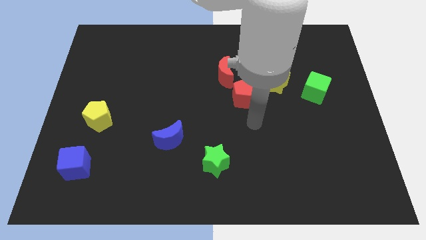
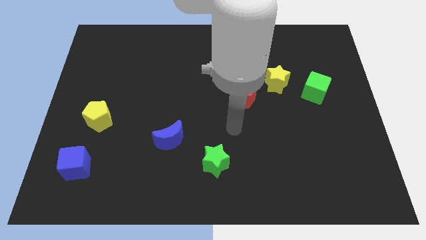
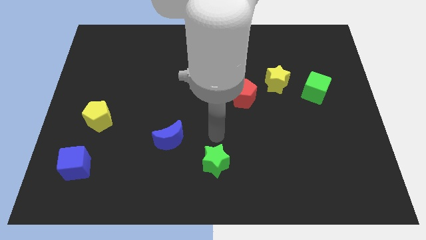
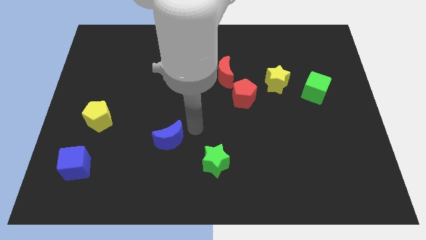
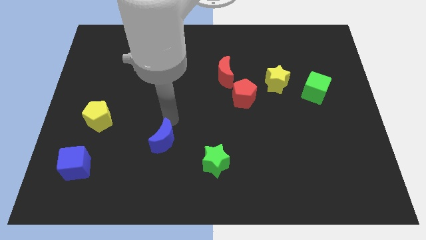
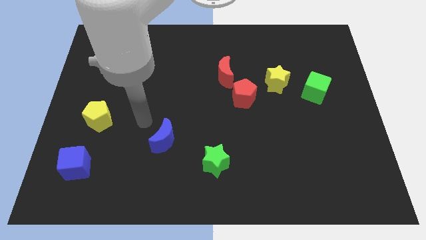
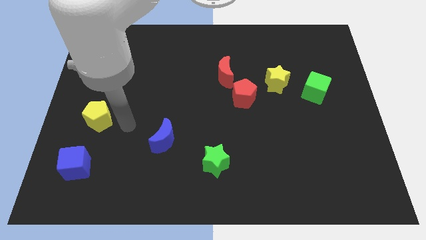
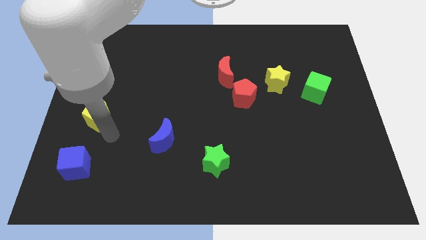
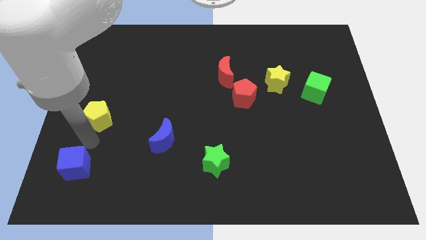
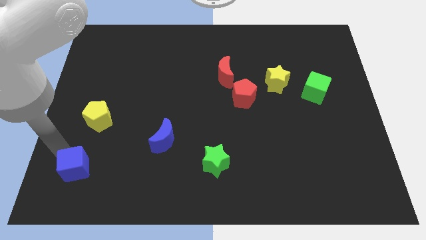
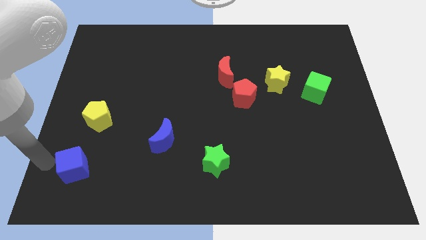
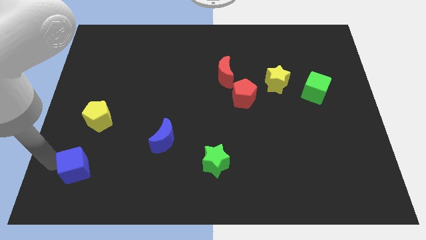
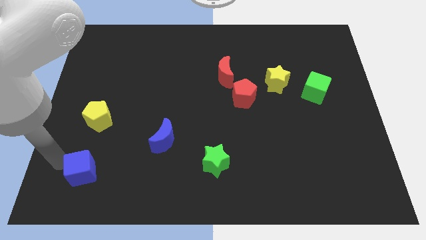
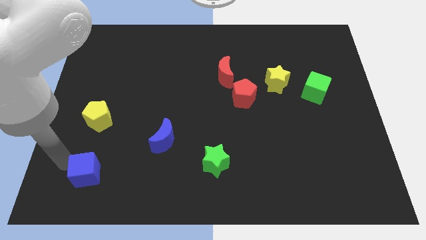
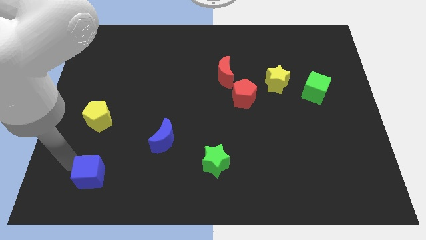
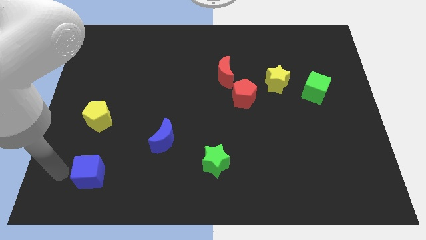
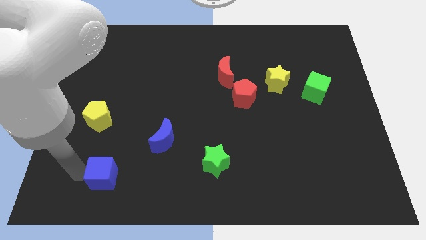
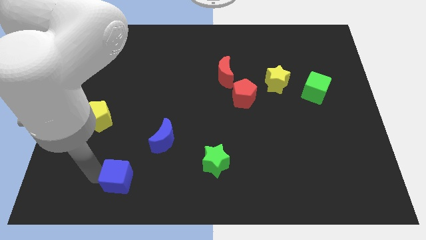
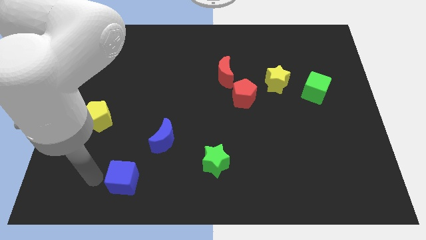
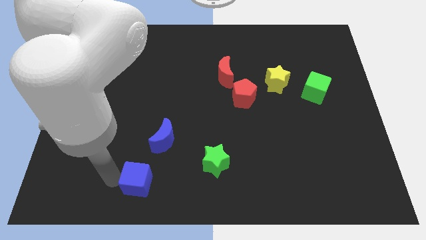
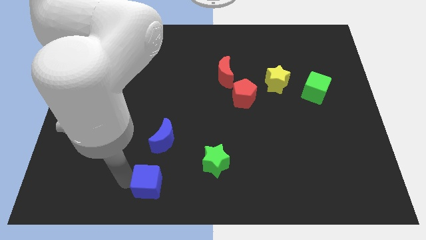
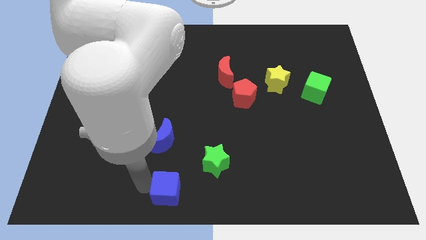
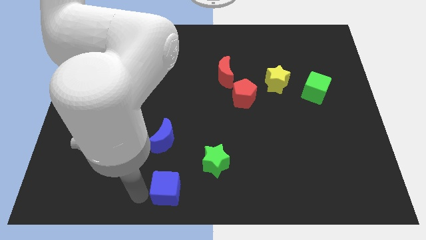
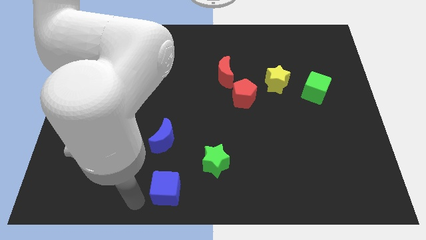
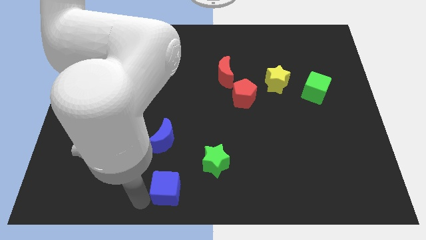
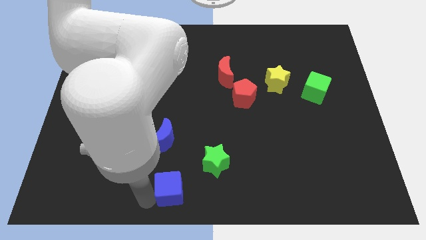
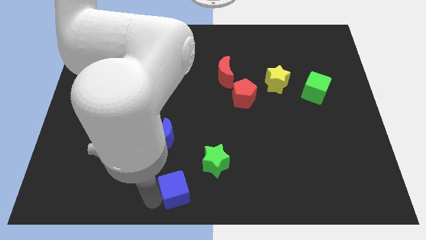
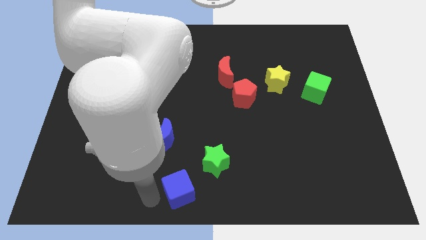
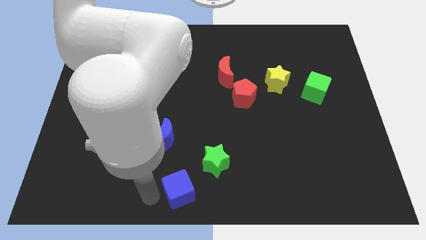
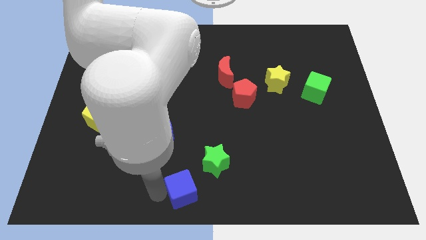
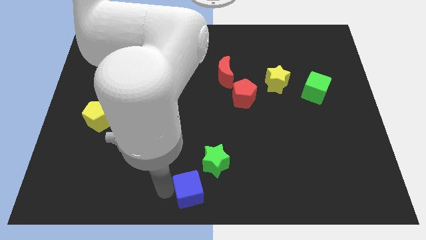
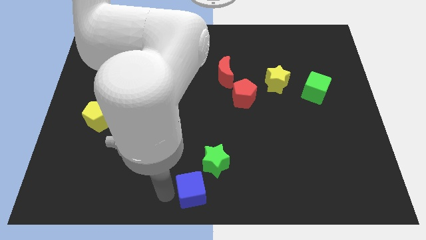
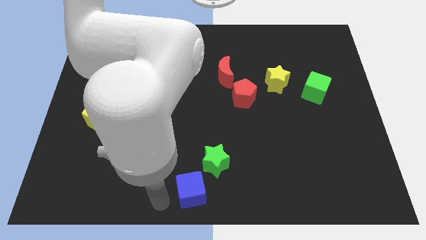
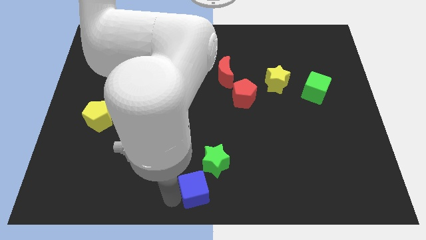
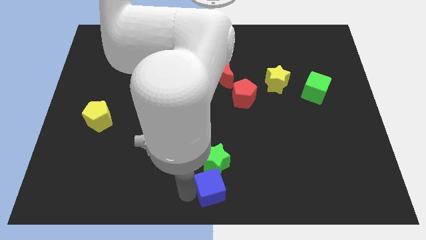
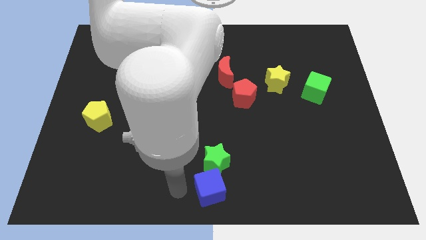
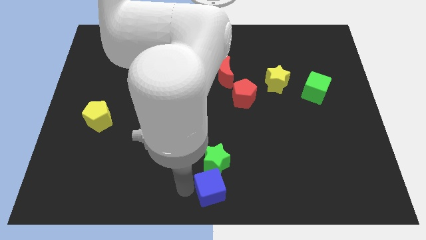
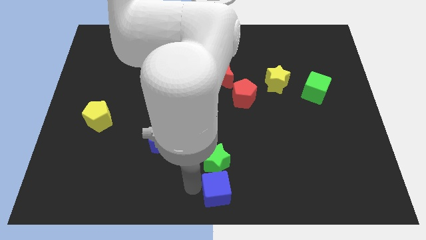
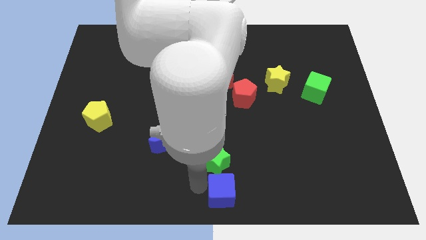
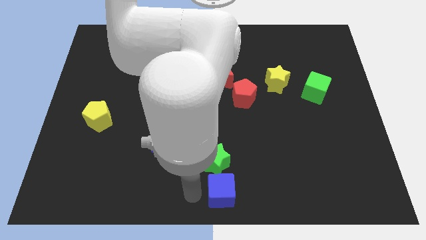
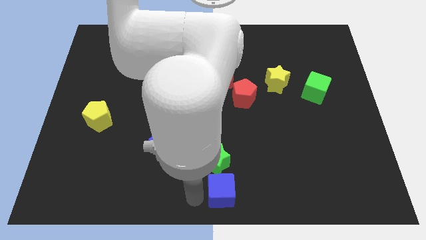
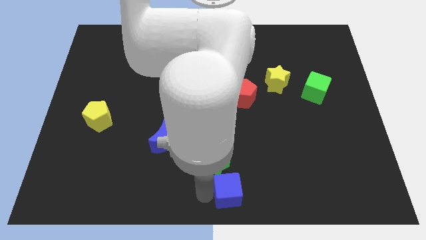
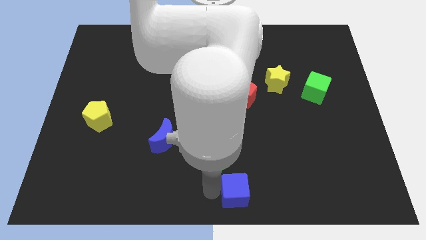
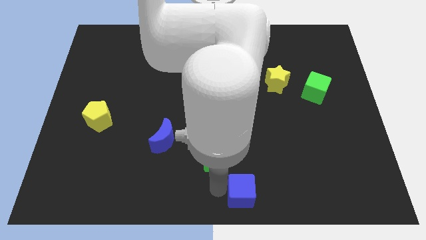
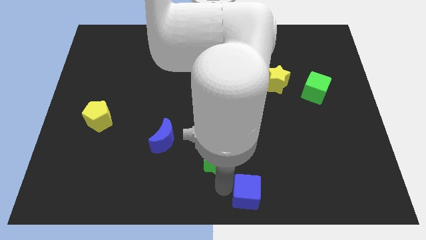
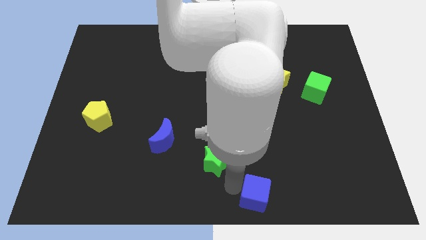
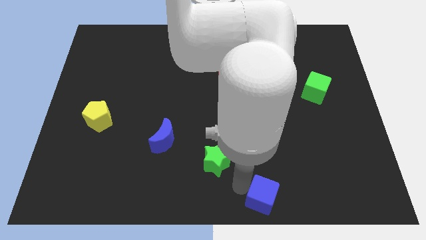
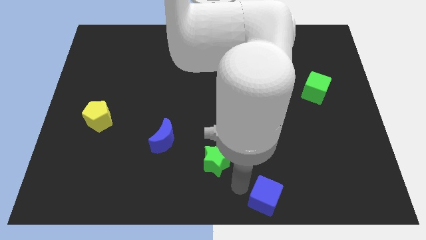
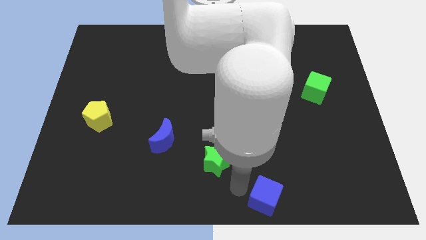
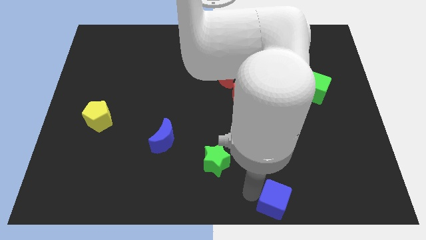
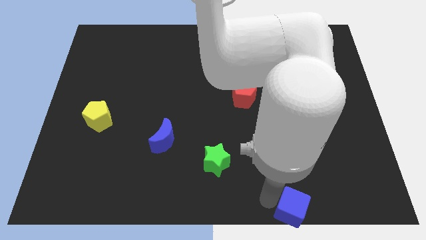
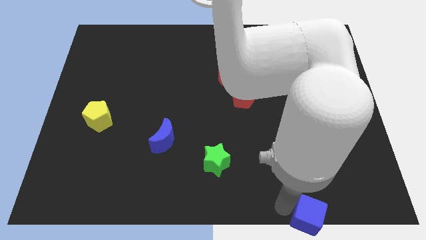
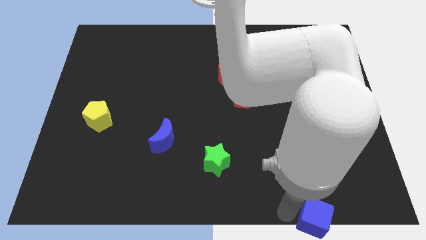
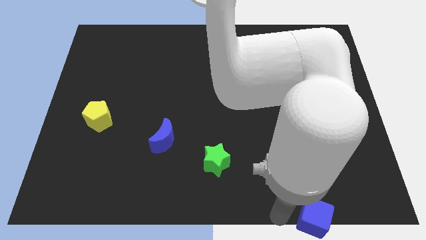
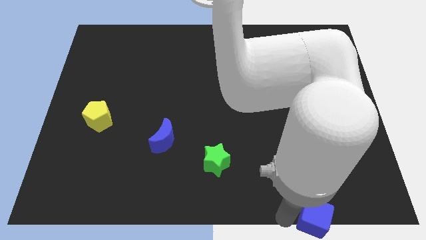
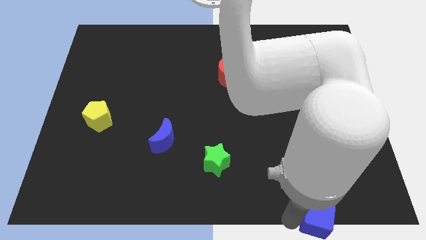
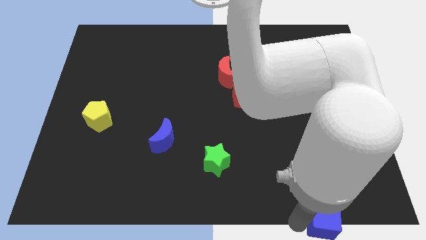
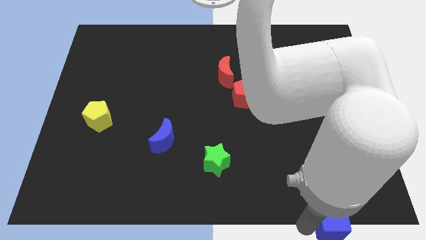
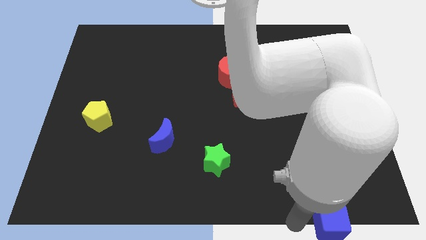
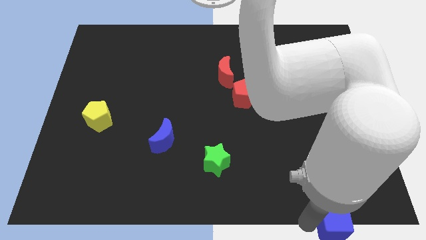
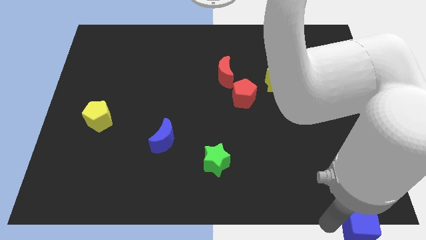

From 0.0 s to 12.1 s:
put the blue cube to the lower right corner

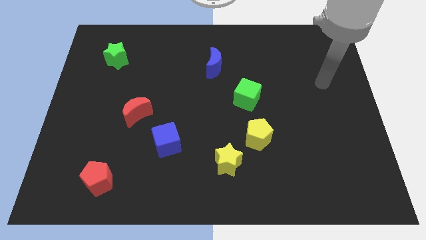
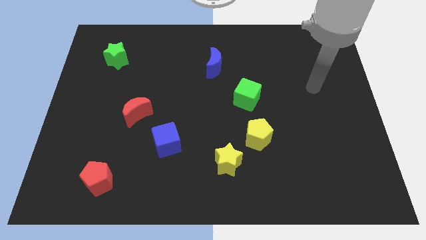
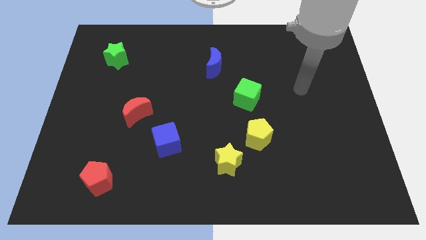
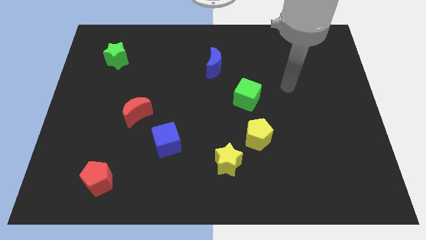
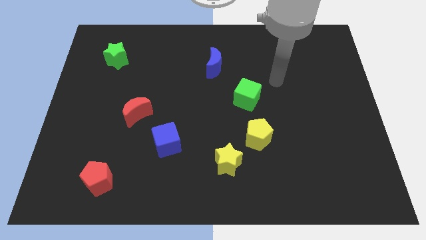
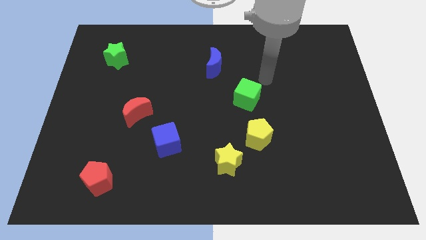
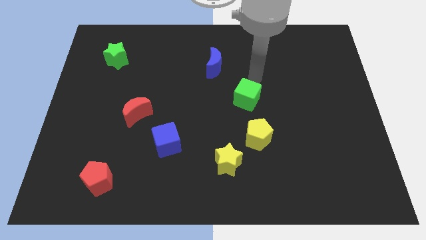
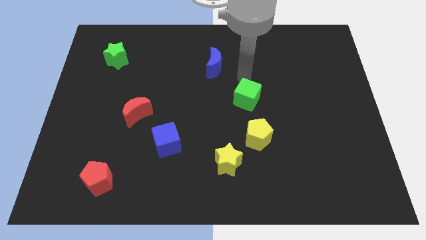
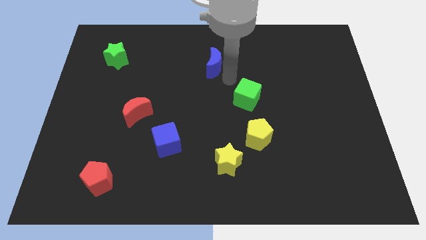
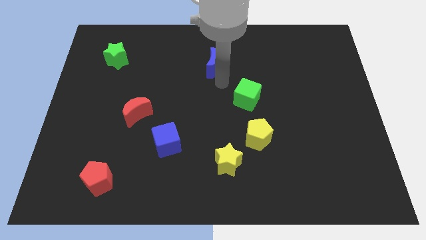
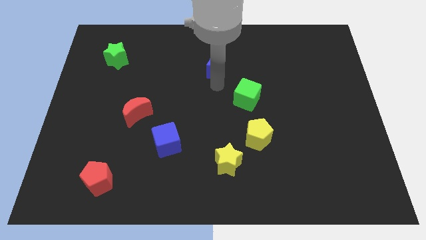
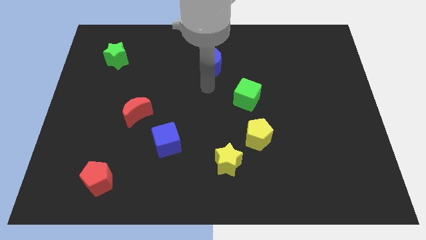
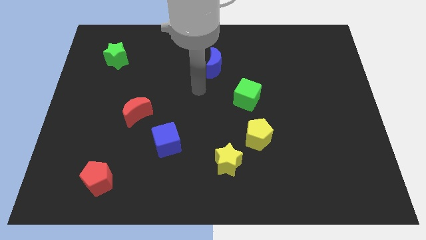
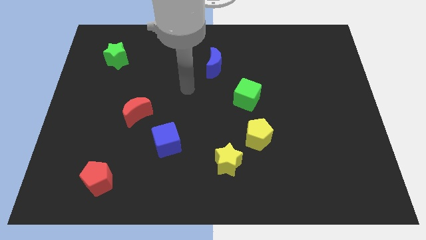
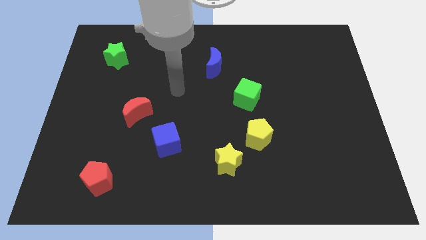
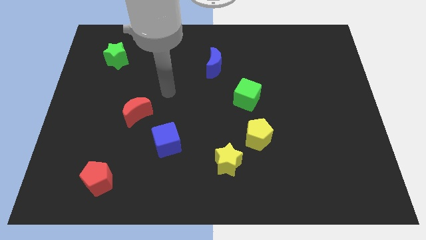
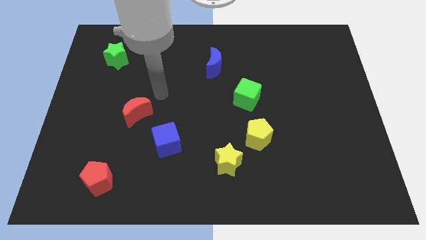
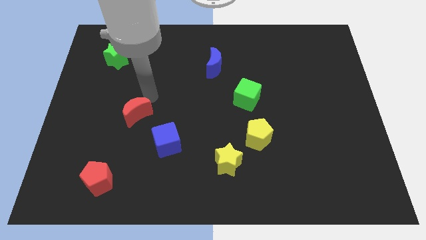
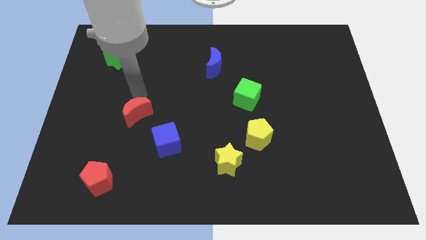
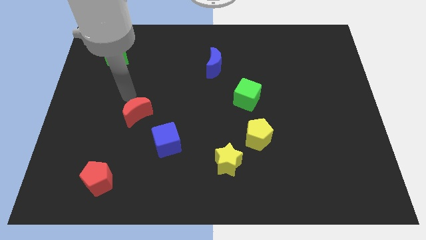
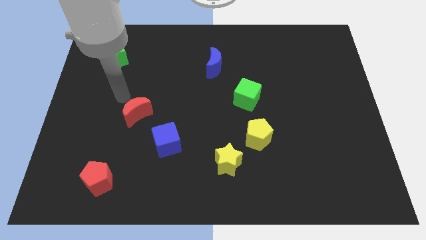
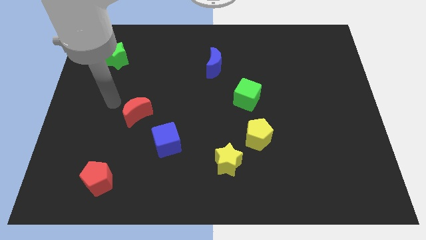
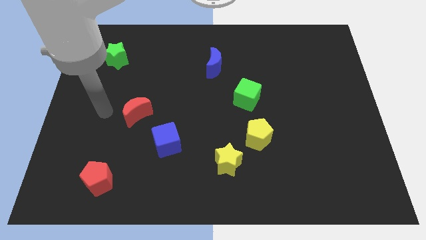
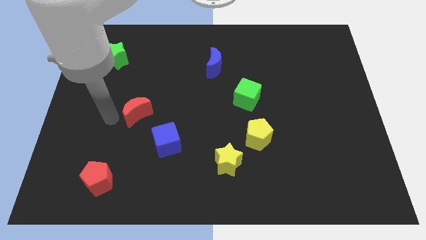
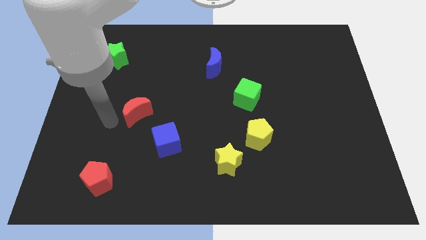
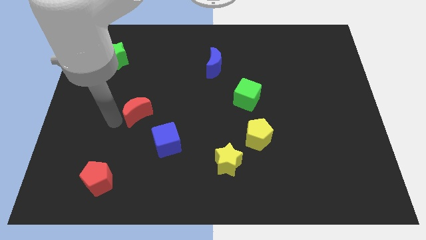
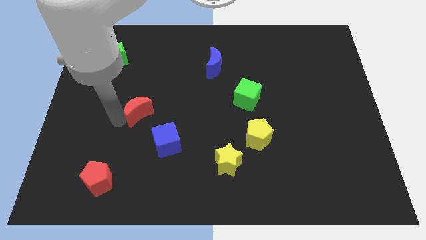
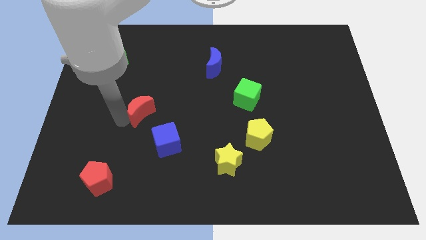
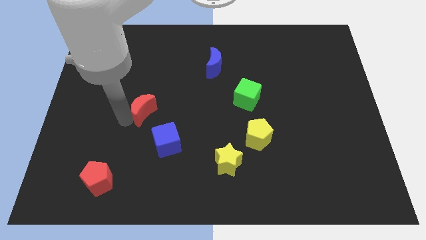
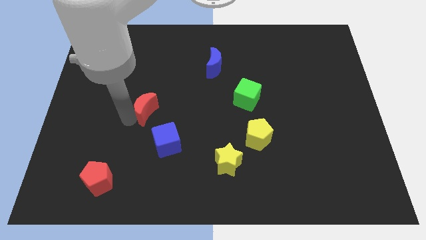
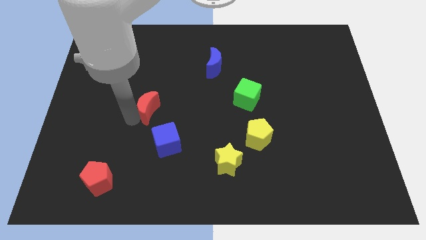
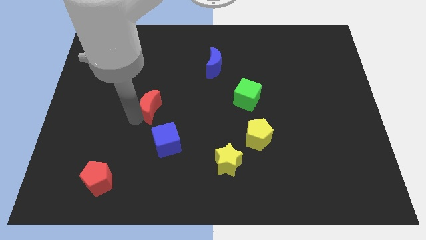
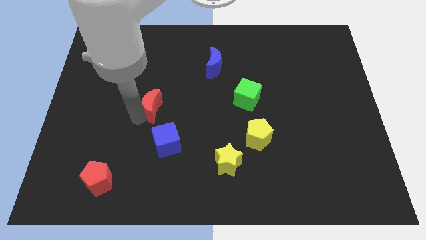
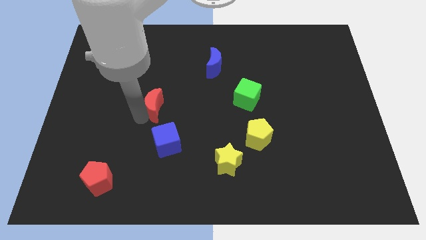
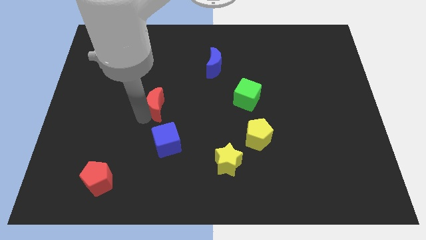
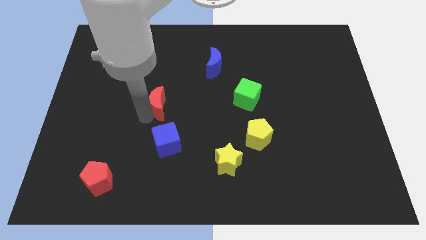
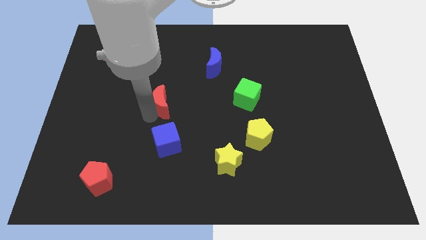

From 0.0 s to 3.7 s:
push the red moon to the middle of the board
